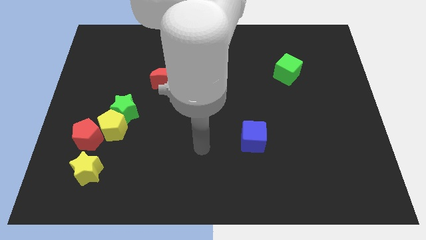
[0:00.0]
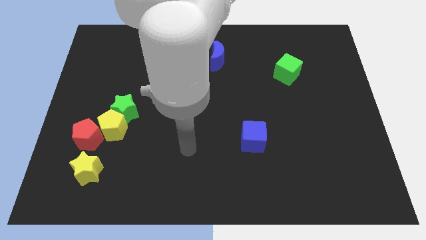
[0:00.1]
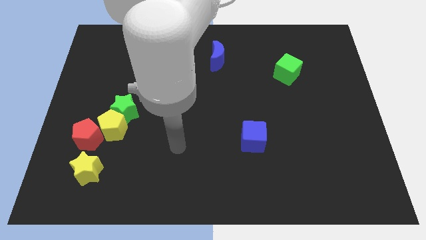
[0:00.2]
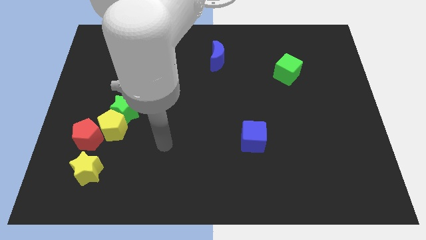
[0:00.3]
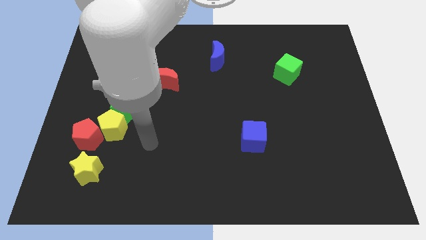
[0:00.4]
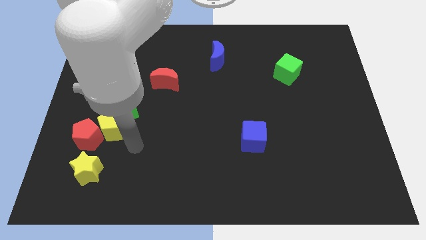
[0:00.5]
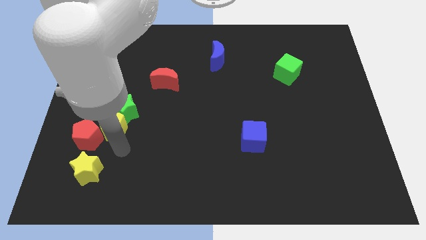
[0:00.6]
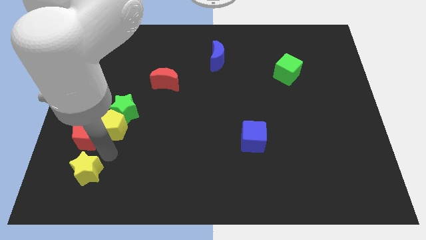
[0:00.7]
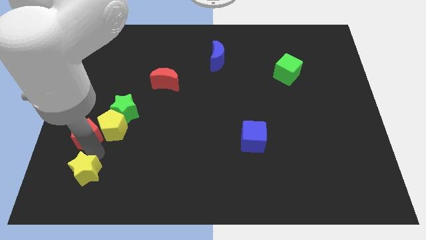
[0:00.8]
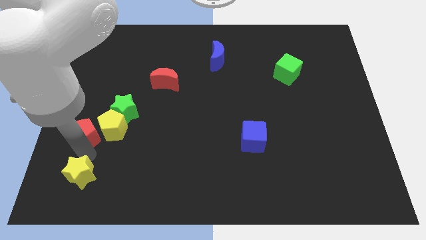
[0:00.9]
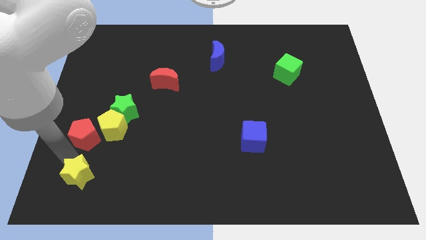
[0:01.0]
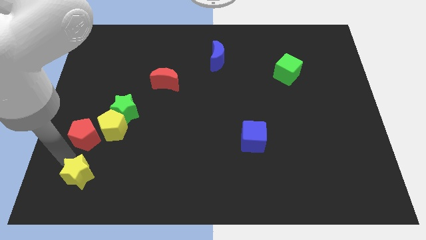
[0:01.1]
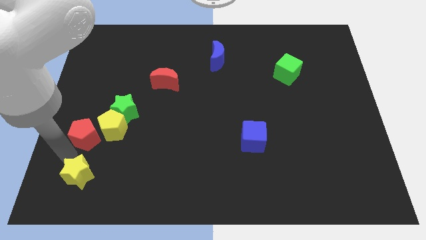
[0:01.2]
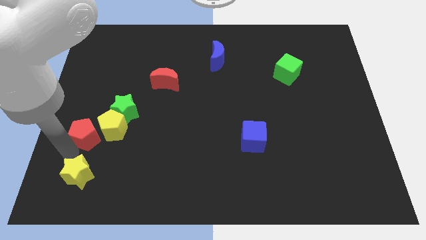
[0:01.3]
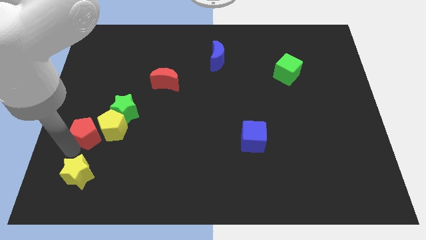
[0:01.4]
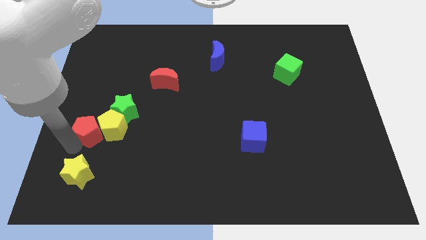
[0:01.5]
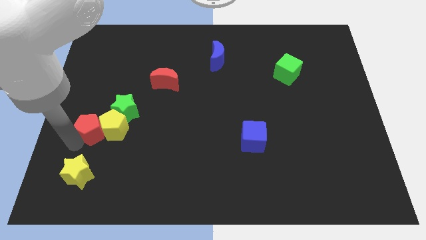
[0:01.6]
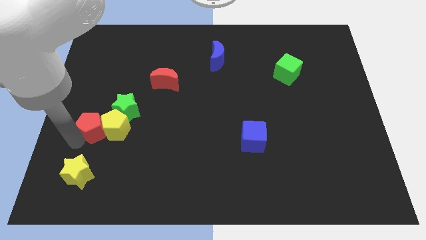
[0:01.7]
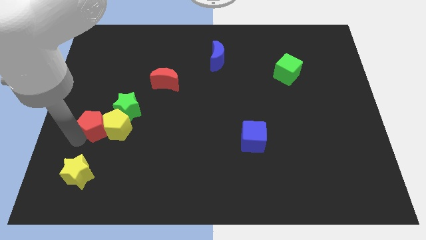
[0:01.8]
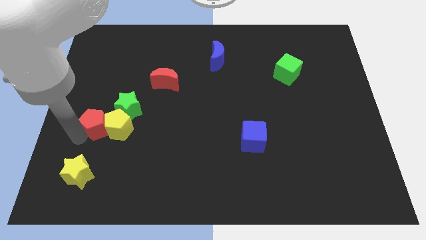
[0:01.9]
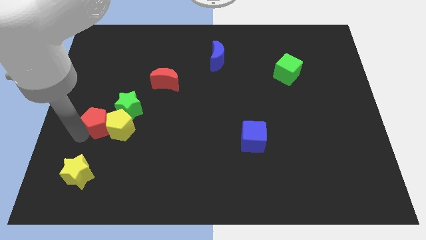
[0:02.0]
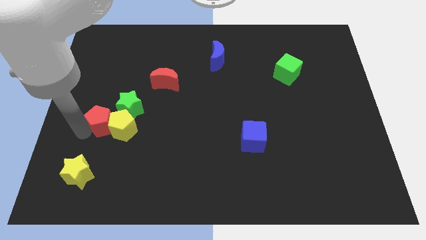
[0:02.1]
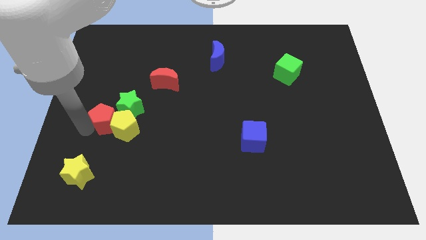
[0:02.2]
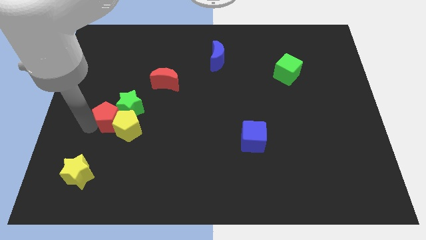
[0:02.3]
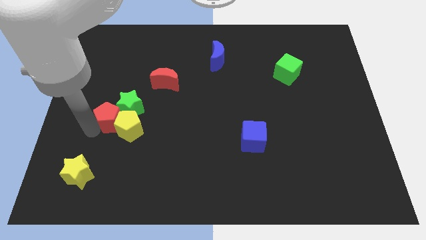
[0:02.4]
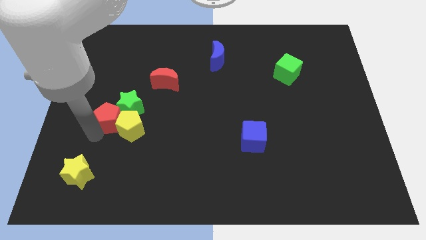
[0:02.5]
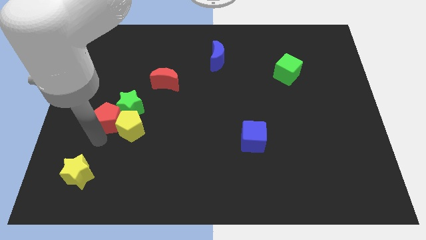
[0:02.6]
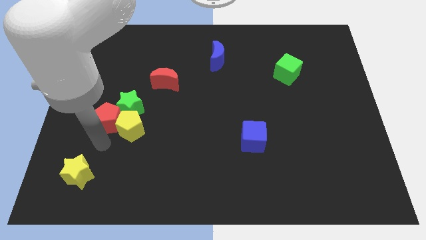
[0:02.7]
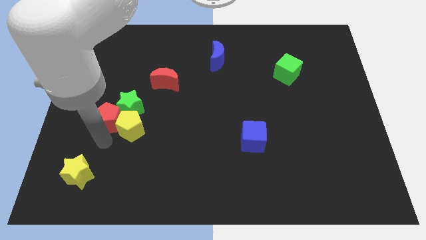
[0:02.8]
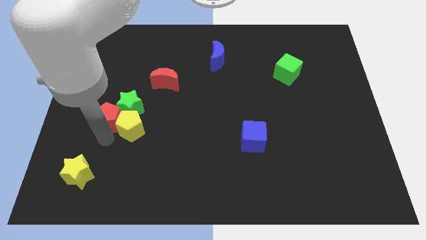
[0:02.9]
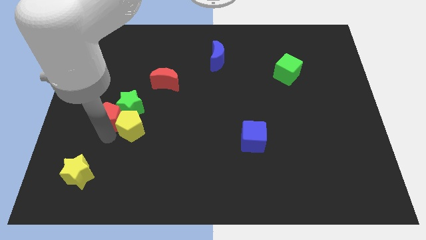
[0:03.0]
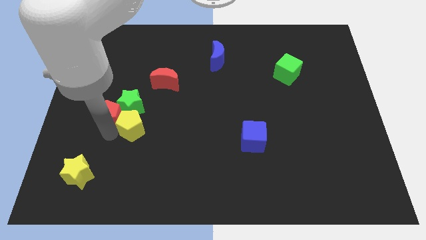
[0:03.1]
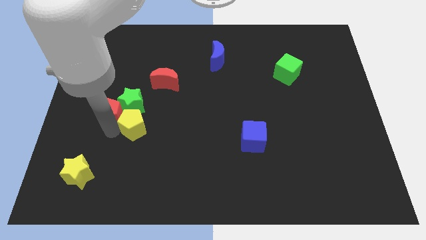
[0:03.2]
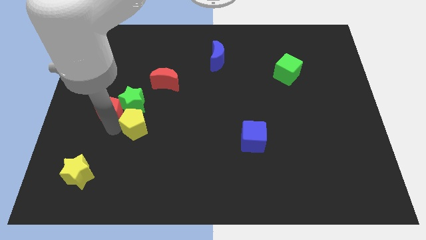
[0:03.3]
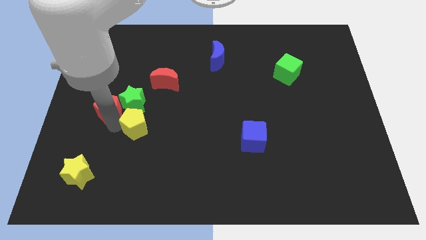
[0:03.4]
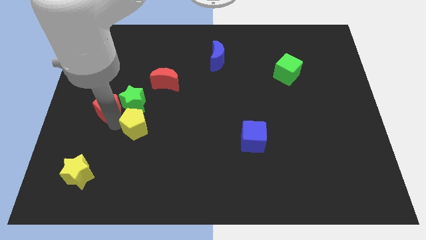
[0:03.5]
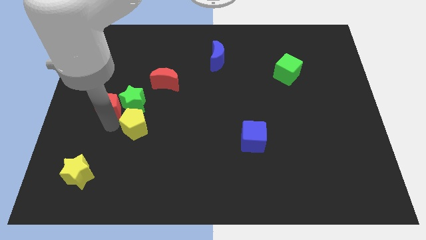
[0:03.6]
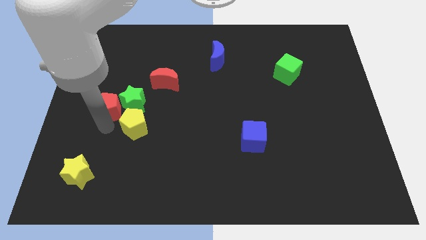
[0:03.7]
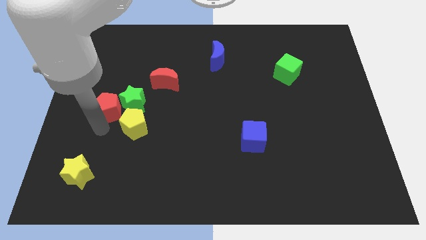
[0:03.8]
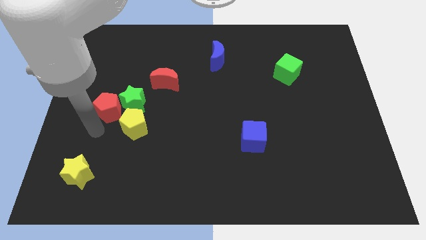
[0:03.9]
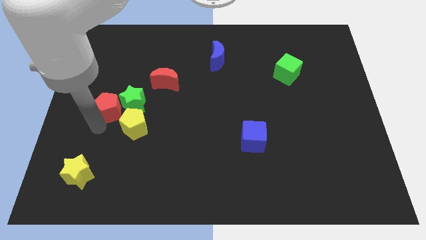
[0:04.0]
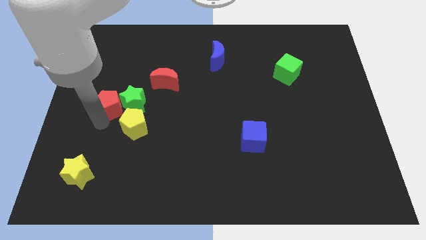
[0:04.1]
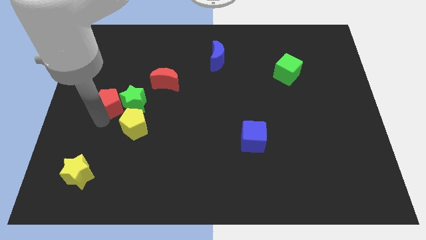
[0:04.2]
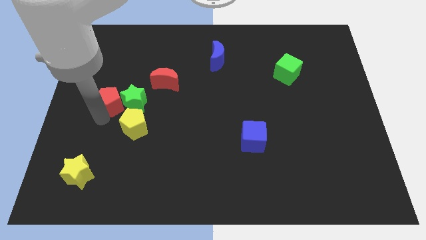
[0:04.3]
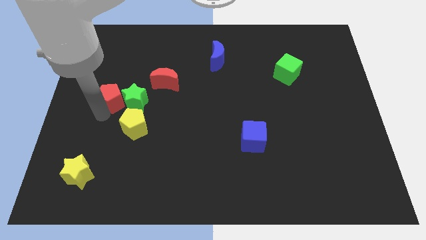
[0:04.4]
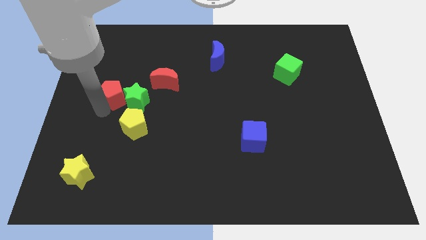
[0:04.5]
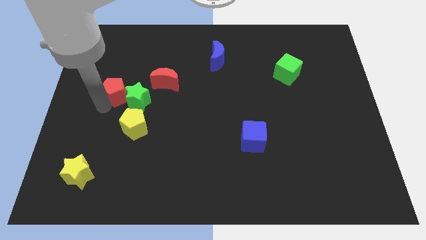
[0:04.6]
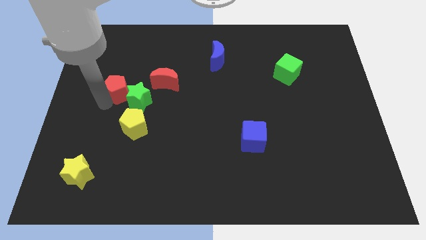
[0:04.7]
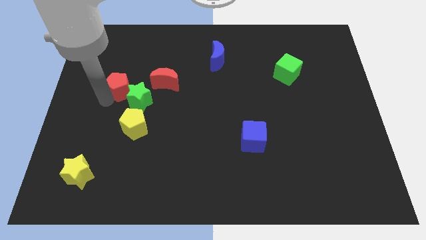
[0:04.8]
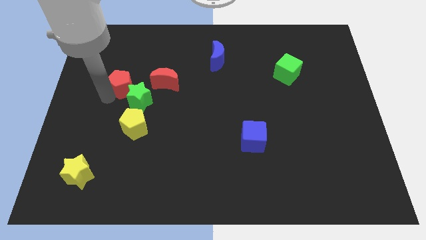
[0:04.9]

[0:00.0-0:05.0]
push the red pentagon above the green star

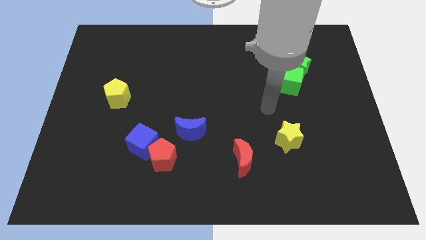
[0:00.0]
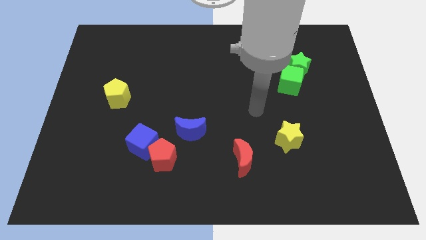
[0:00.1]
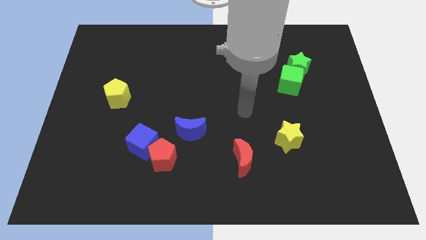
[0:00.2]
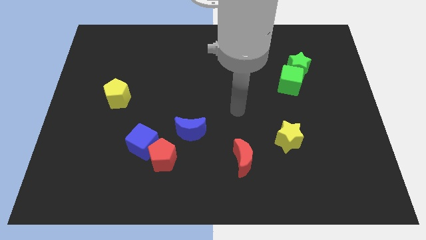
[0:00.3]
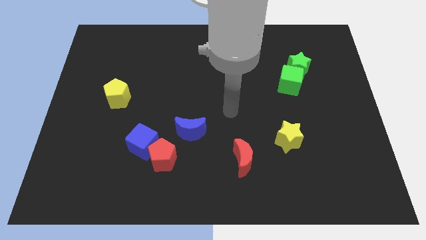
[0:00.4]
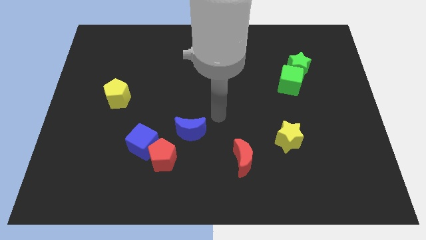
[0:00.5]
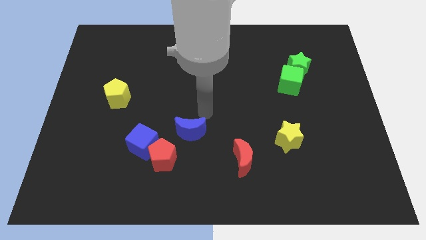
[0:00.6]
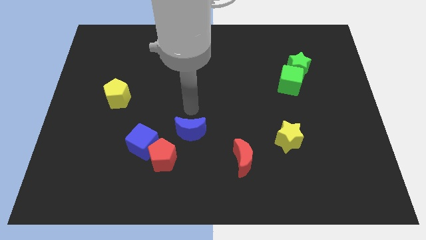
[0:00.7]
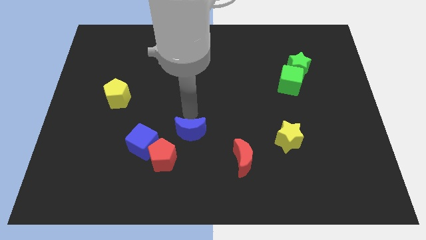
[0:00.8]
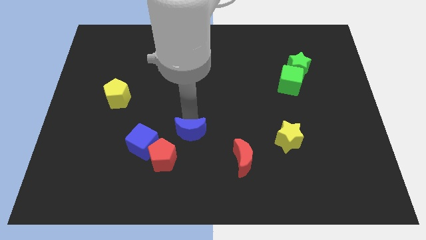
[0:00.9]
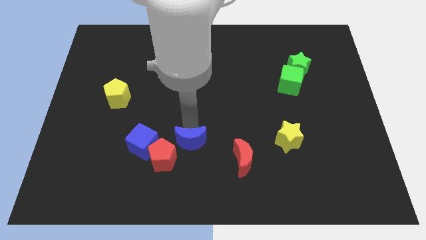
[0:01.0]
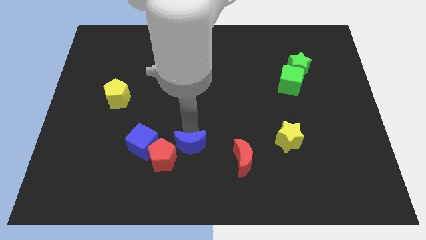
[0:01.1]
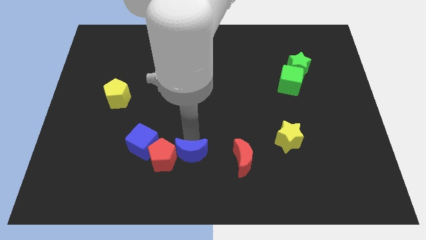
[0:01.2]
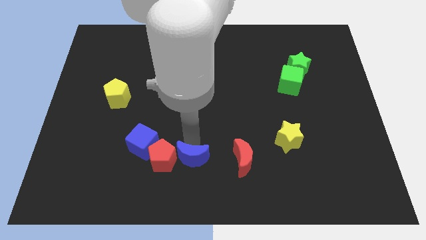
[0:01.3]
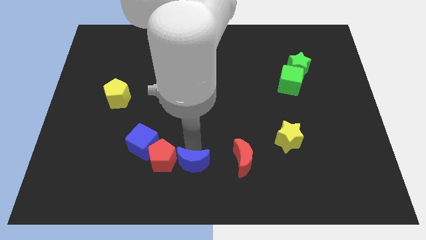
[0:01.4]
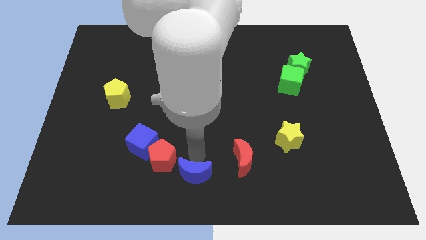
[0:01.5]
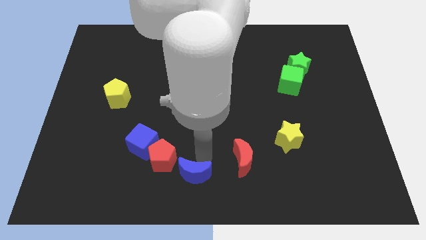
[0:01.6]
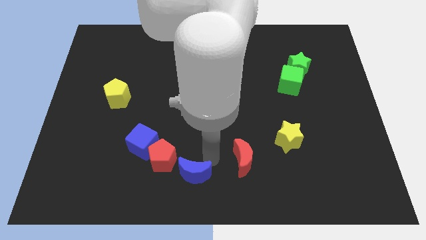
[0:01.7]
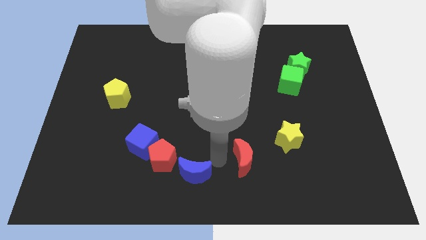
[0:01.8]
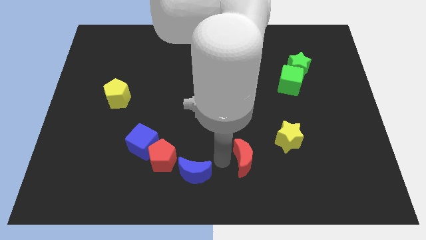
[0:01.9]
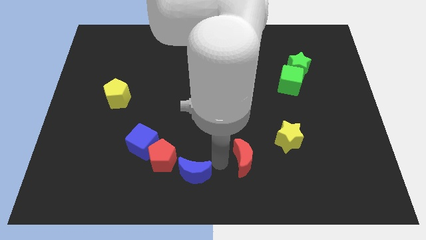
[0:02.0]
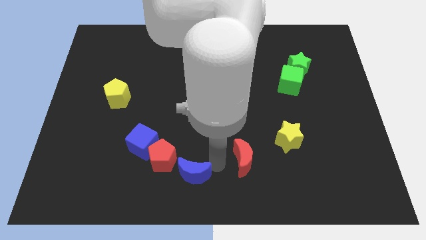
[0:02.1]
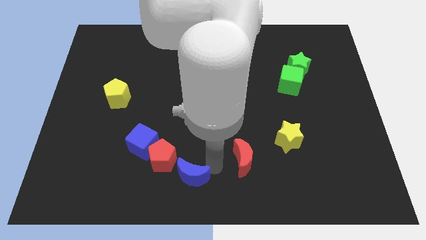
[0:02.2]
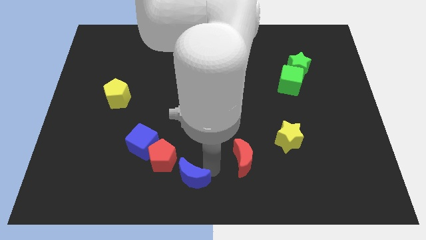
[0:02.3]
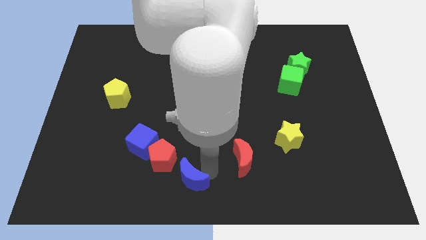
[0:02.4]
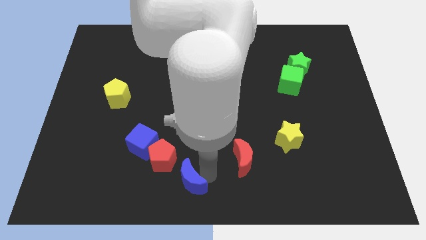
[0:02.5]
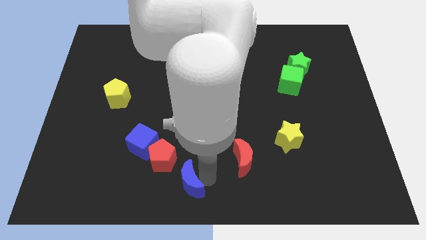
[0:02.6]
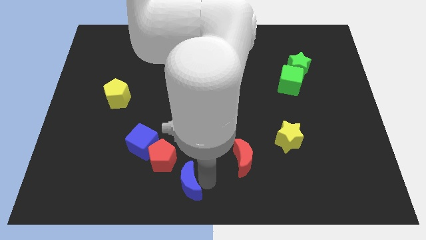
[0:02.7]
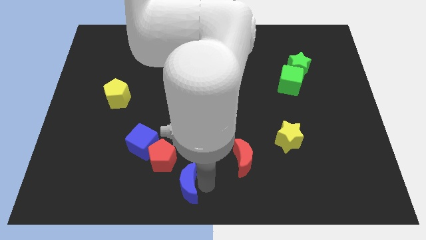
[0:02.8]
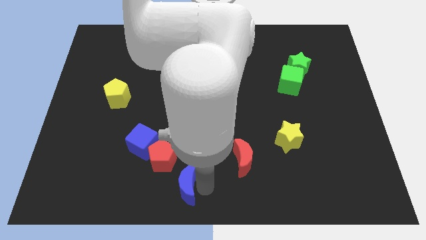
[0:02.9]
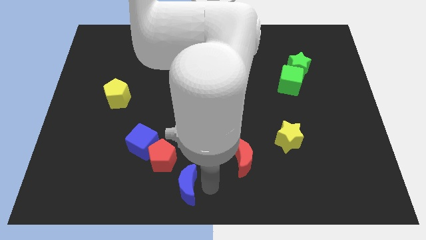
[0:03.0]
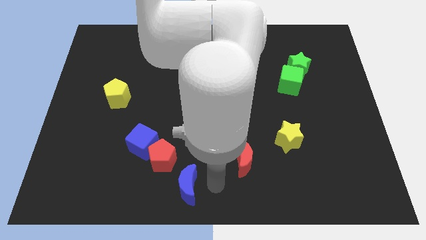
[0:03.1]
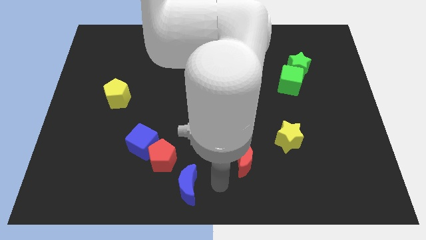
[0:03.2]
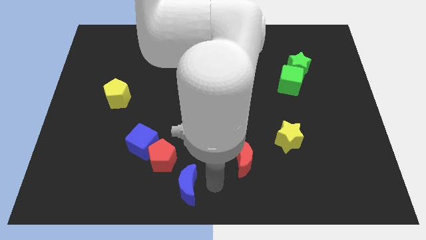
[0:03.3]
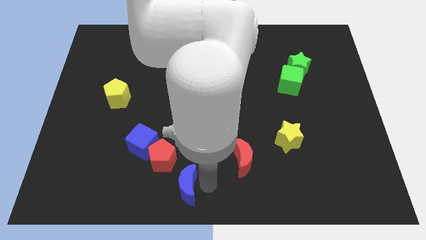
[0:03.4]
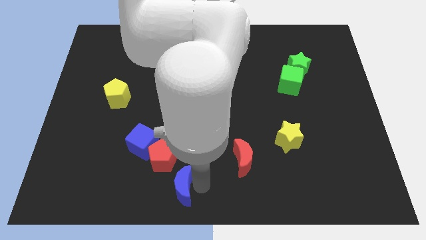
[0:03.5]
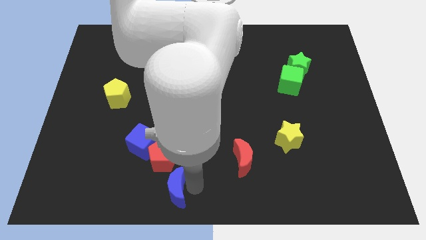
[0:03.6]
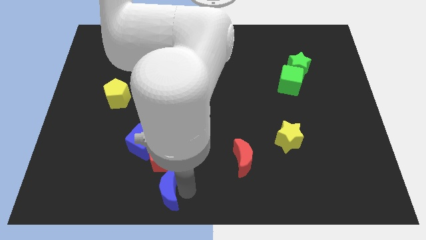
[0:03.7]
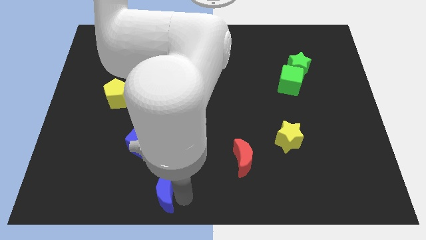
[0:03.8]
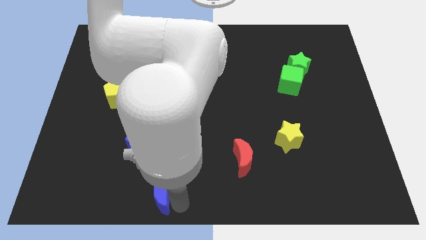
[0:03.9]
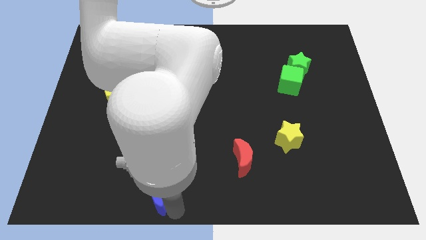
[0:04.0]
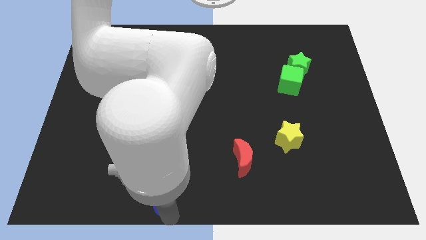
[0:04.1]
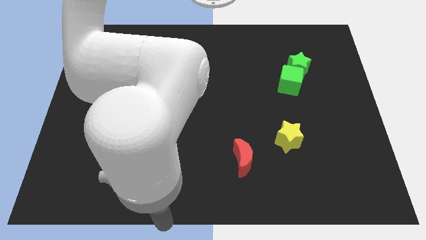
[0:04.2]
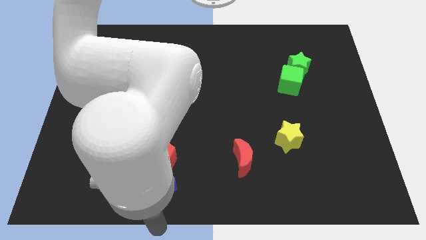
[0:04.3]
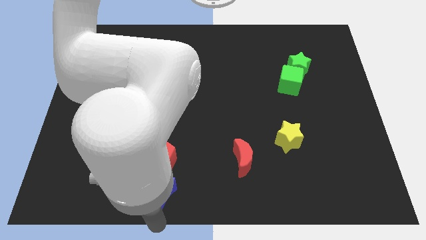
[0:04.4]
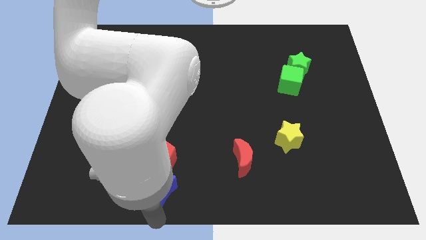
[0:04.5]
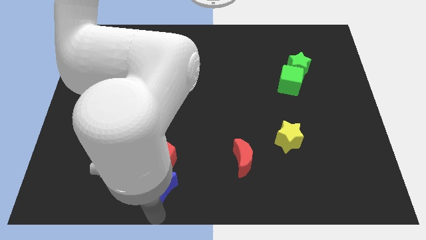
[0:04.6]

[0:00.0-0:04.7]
slide the blue moon to the bottom right of the blue cube
